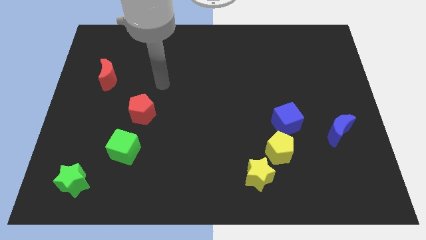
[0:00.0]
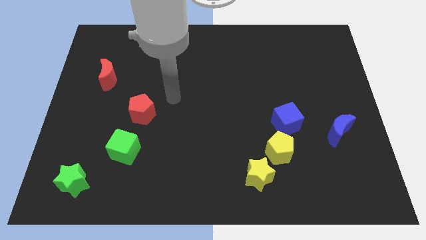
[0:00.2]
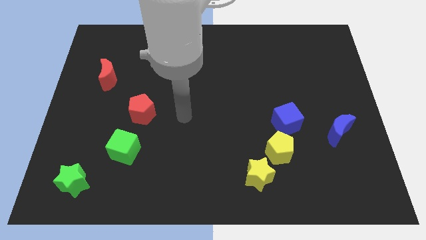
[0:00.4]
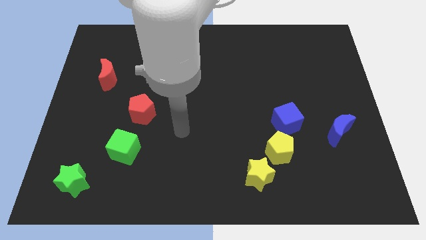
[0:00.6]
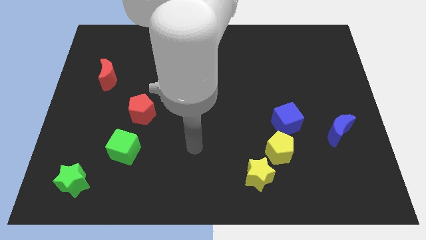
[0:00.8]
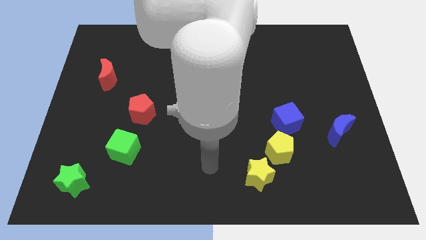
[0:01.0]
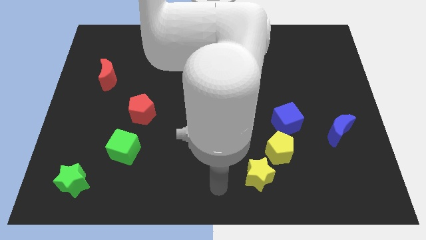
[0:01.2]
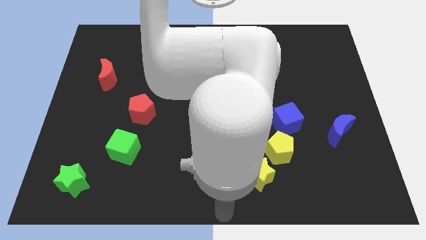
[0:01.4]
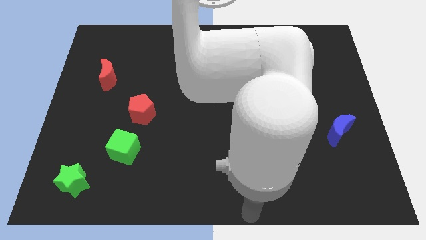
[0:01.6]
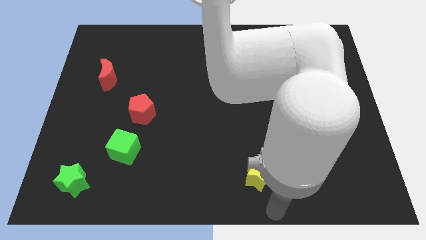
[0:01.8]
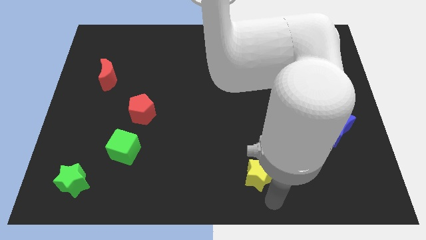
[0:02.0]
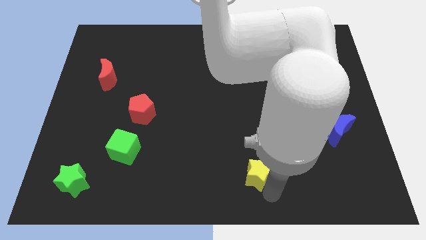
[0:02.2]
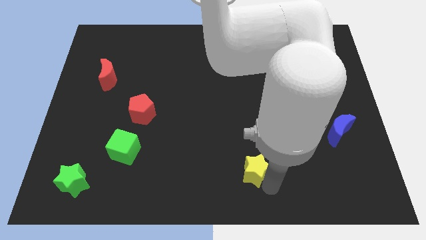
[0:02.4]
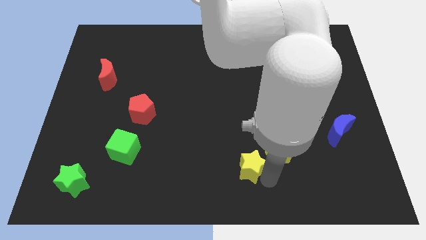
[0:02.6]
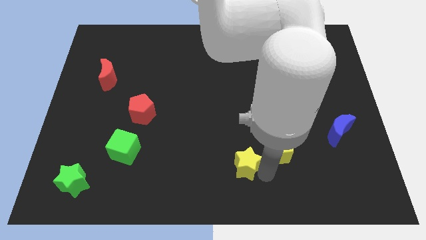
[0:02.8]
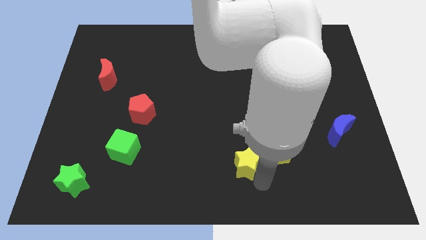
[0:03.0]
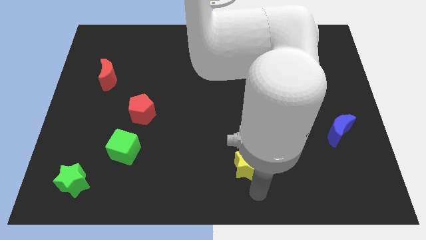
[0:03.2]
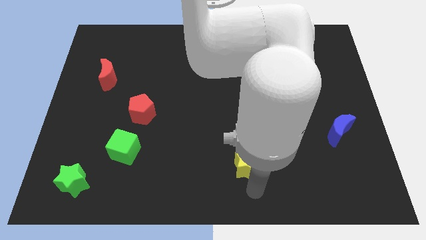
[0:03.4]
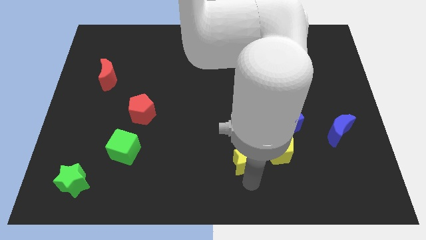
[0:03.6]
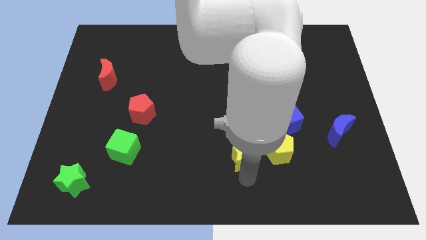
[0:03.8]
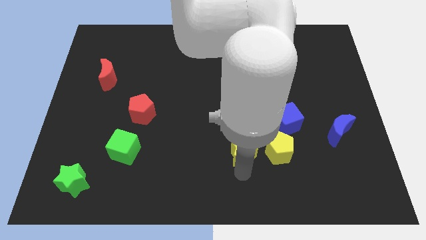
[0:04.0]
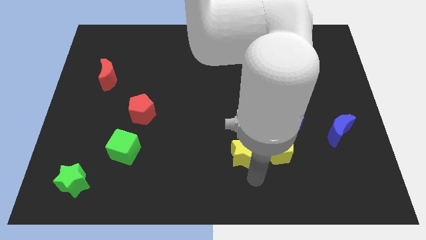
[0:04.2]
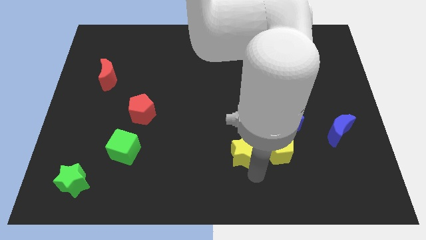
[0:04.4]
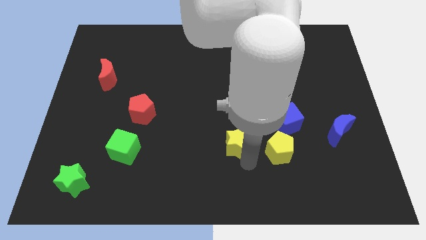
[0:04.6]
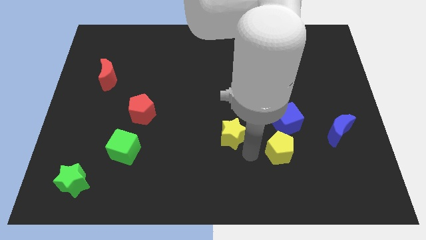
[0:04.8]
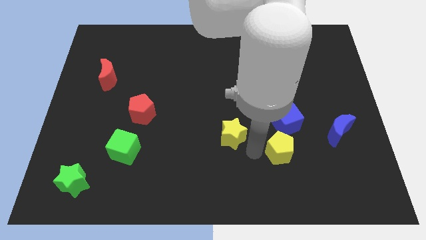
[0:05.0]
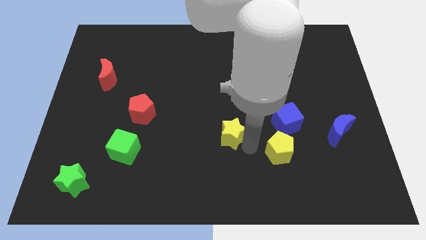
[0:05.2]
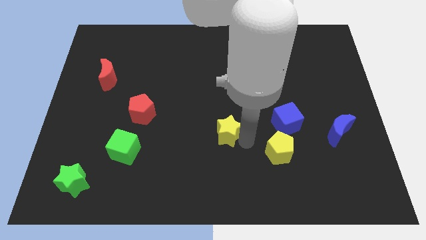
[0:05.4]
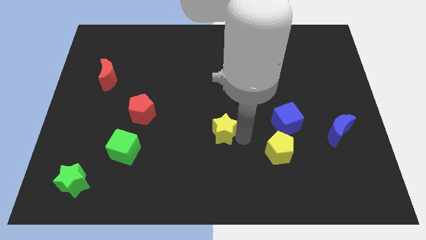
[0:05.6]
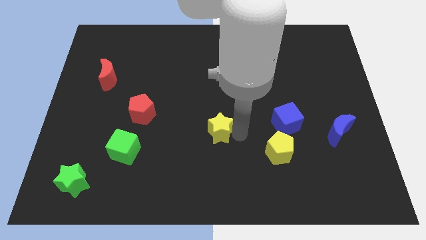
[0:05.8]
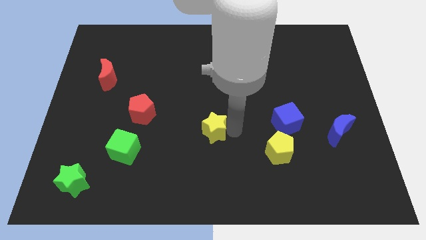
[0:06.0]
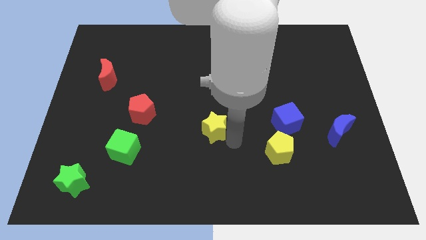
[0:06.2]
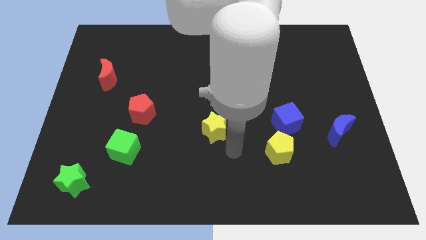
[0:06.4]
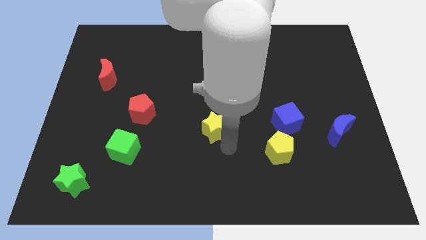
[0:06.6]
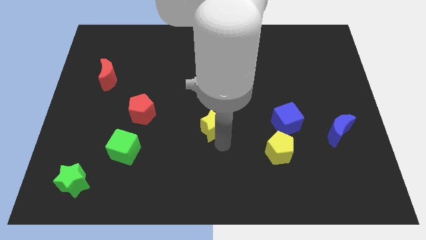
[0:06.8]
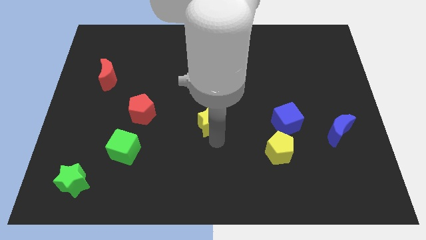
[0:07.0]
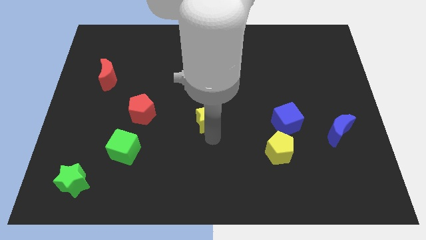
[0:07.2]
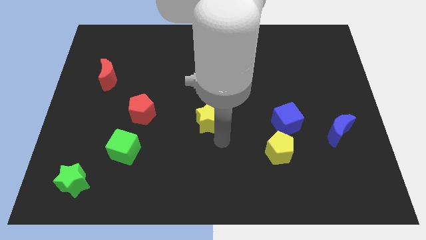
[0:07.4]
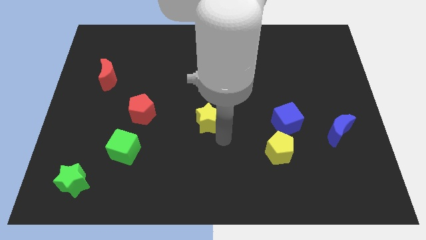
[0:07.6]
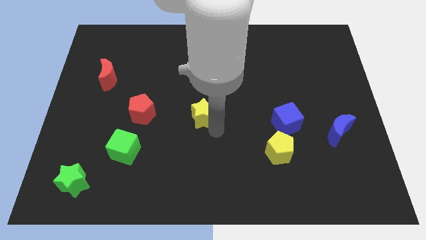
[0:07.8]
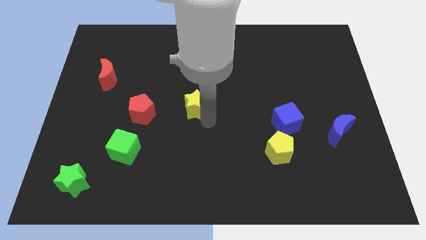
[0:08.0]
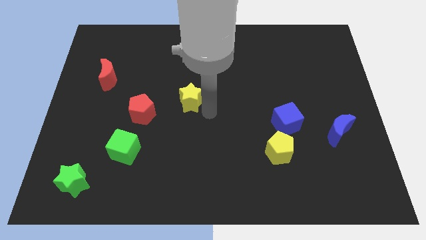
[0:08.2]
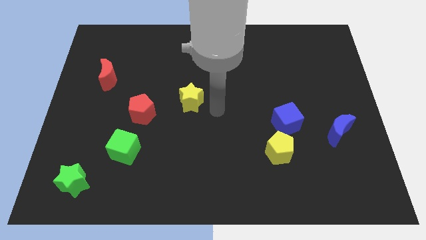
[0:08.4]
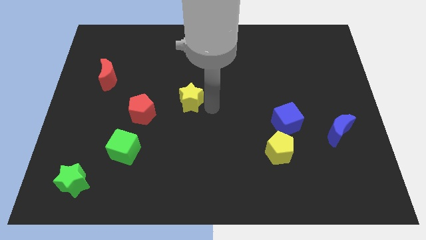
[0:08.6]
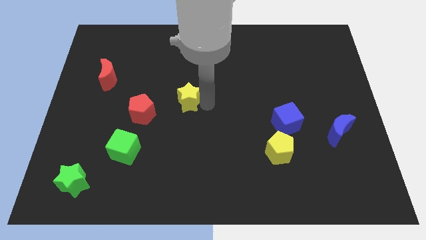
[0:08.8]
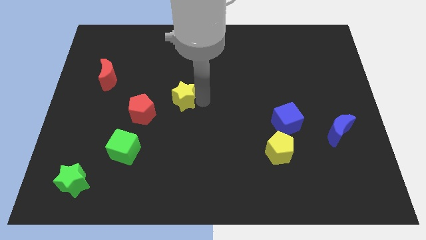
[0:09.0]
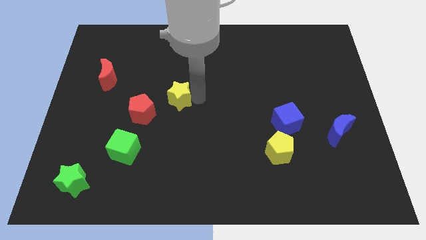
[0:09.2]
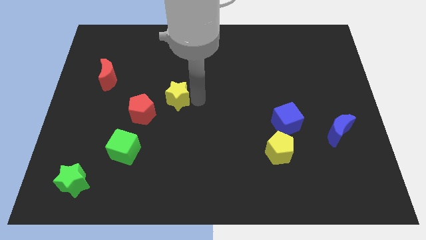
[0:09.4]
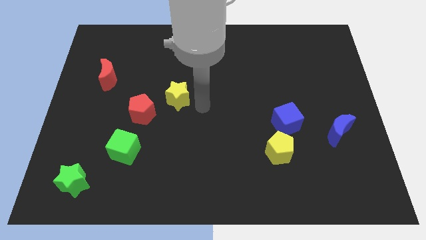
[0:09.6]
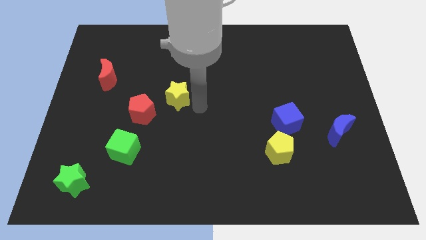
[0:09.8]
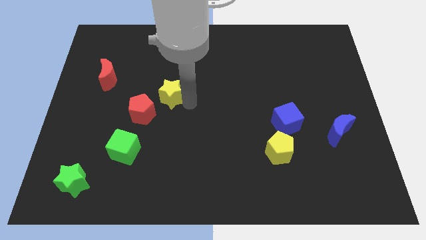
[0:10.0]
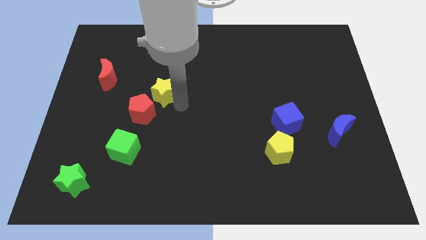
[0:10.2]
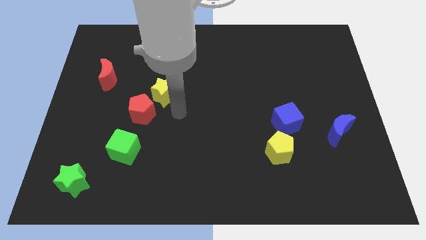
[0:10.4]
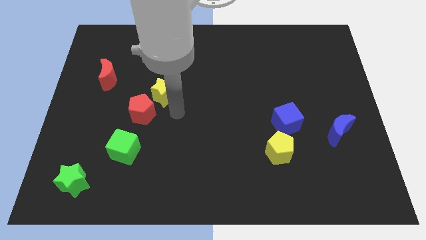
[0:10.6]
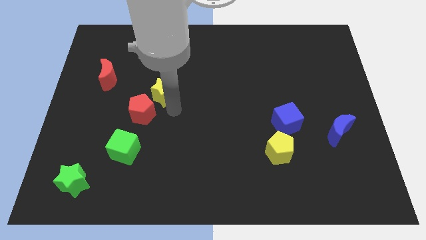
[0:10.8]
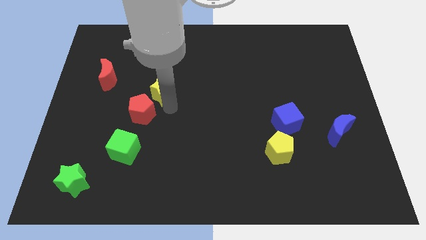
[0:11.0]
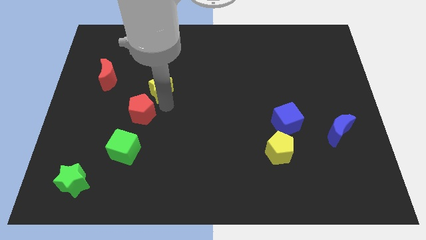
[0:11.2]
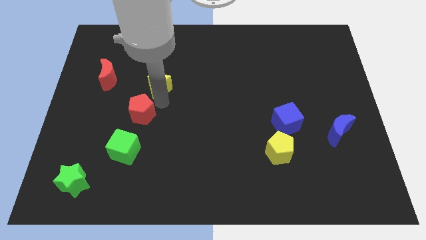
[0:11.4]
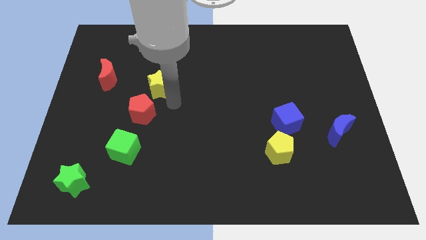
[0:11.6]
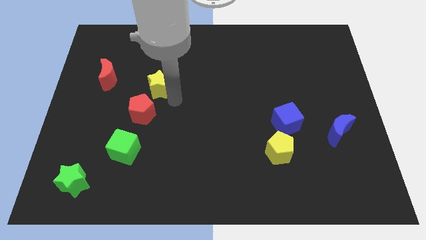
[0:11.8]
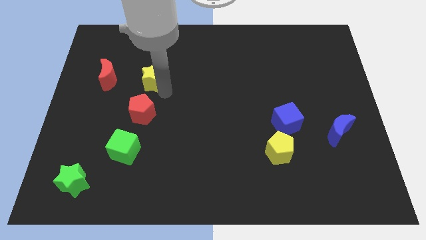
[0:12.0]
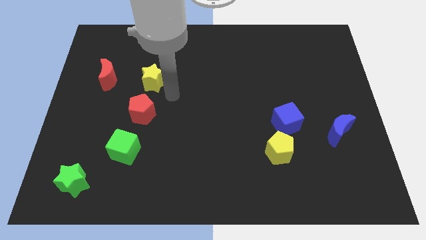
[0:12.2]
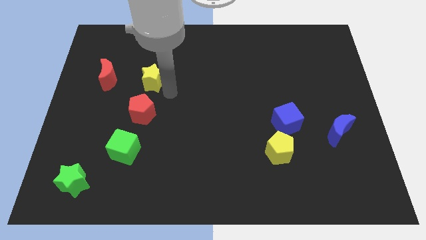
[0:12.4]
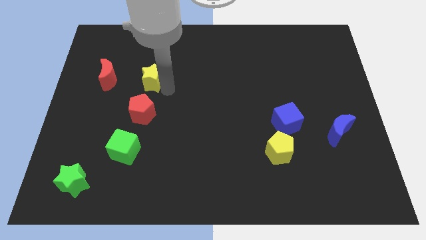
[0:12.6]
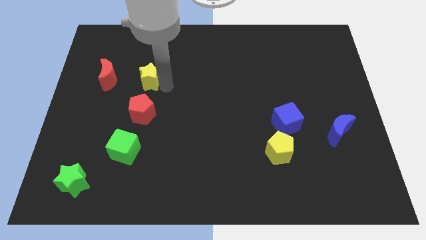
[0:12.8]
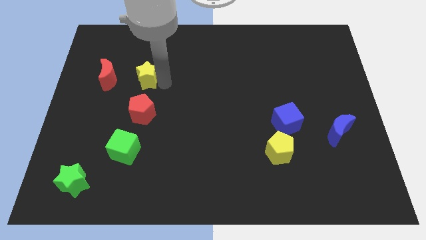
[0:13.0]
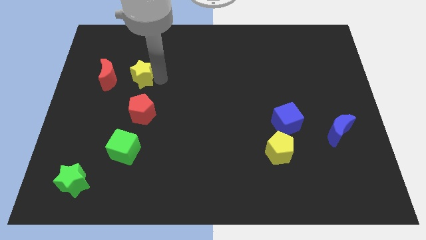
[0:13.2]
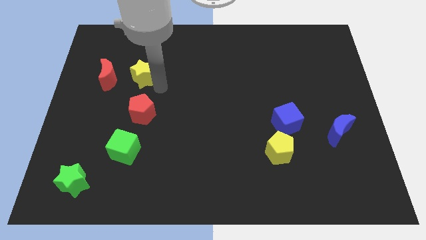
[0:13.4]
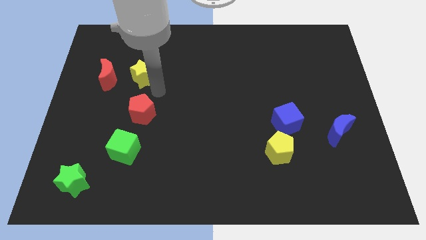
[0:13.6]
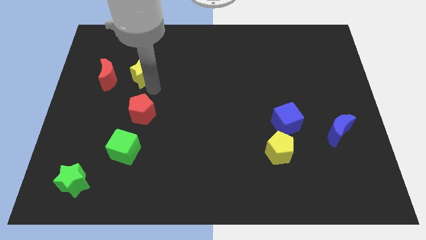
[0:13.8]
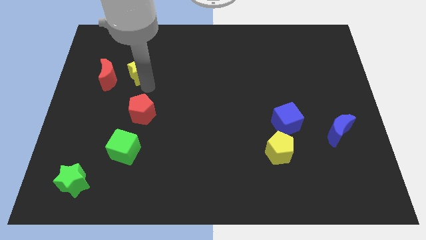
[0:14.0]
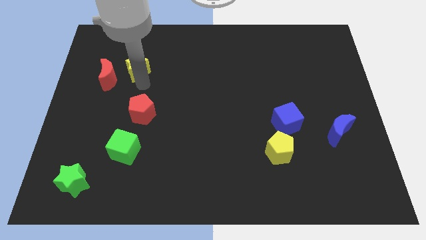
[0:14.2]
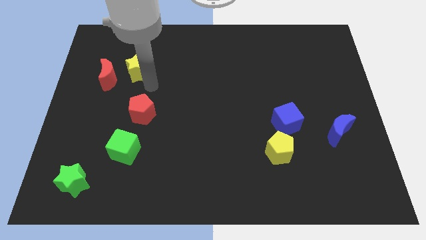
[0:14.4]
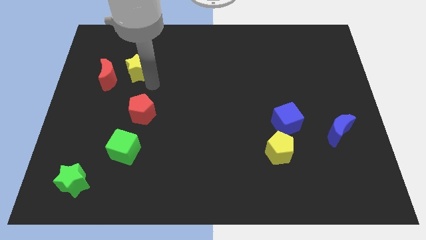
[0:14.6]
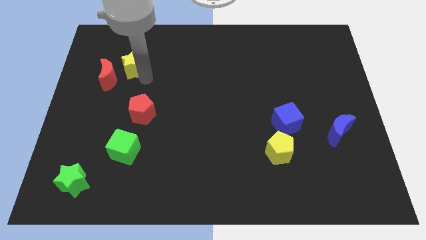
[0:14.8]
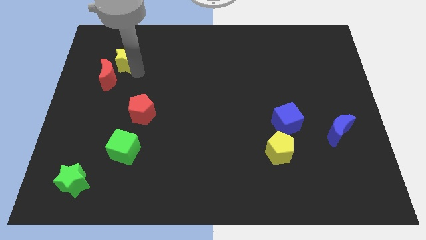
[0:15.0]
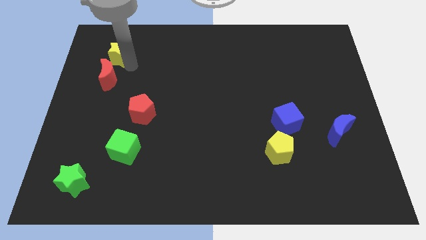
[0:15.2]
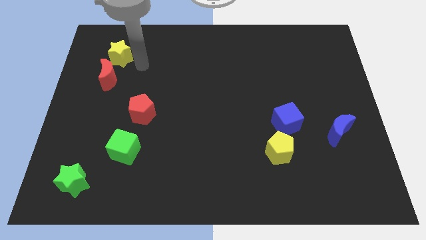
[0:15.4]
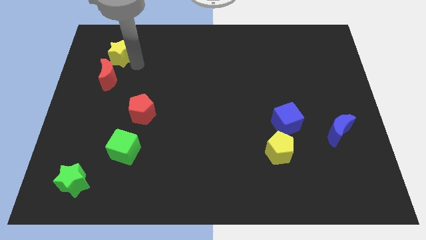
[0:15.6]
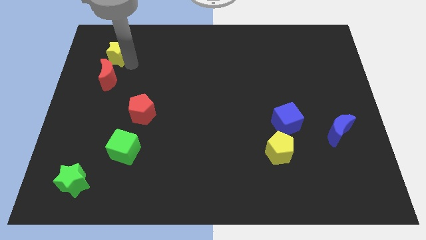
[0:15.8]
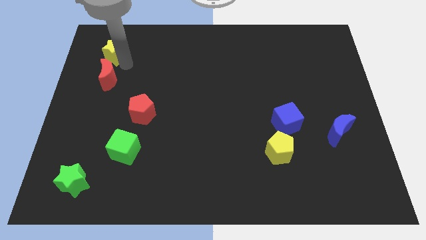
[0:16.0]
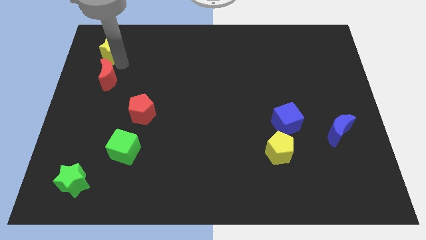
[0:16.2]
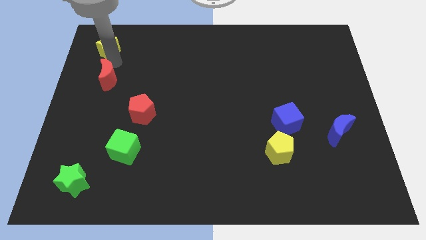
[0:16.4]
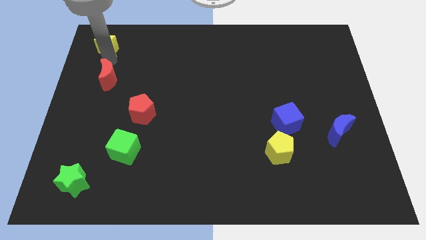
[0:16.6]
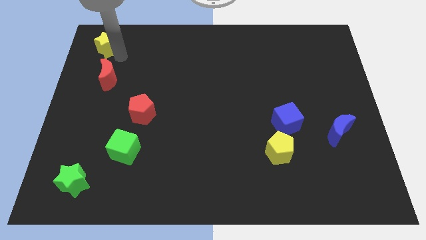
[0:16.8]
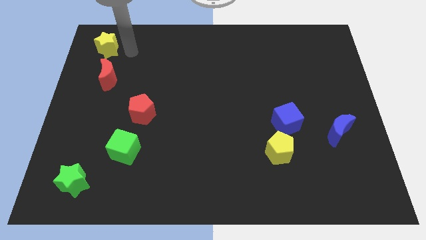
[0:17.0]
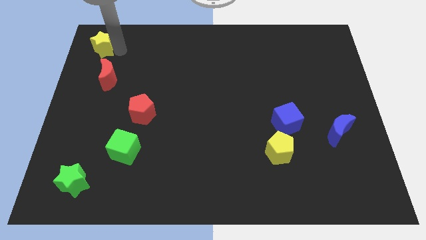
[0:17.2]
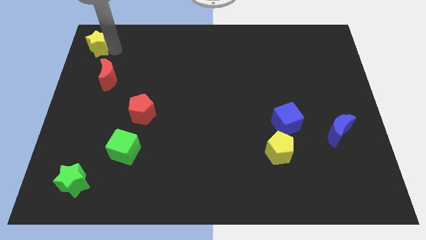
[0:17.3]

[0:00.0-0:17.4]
push the yellow star to the top left corner
